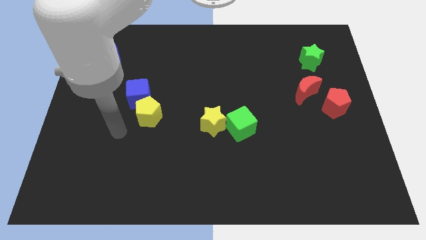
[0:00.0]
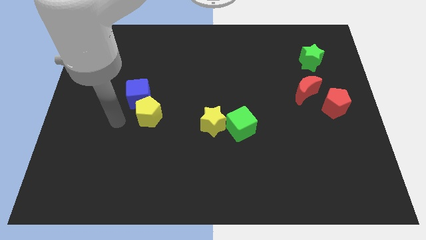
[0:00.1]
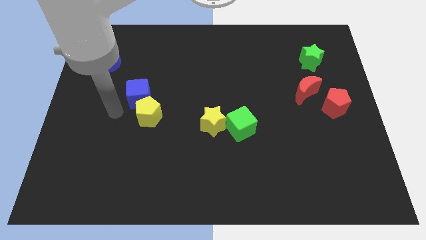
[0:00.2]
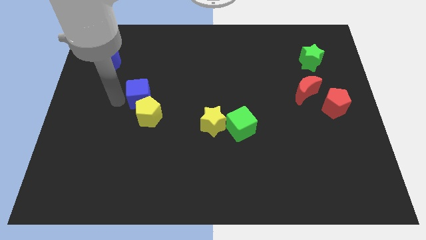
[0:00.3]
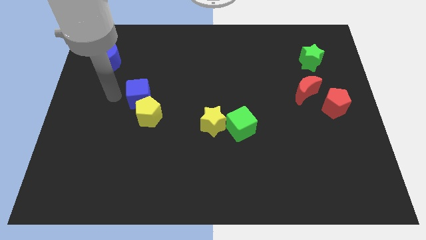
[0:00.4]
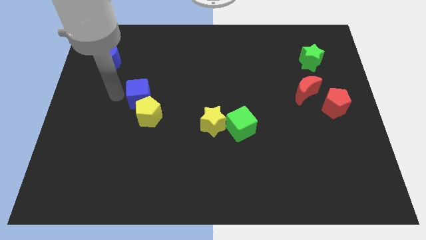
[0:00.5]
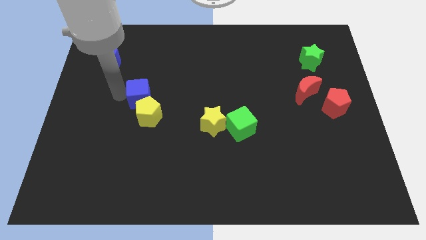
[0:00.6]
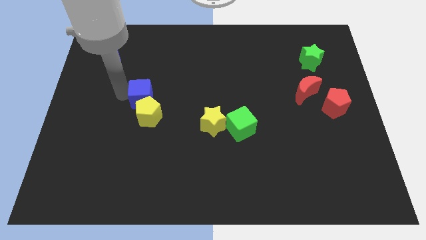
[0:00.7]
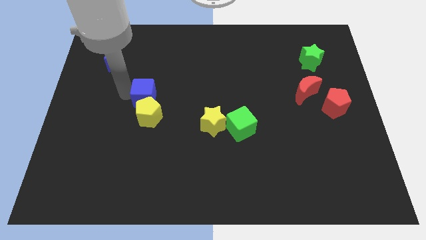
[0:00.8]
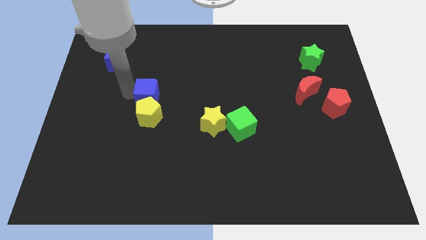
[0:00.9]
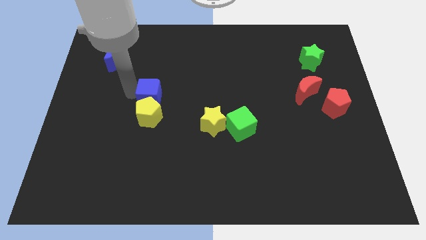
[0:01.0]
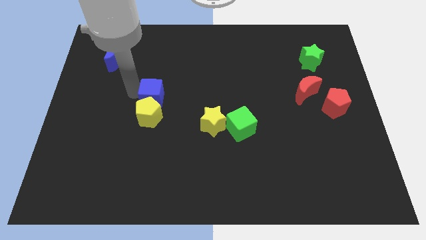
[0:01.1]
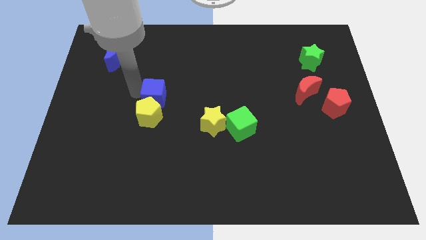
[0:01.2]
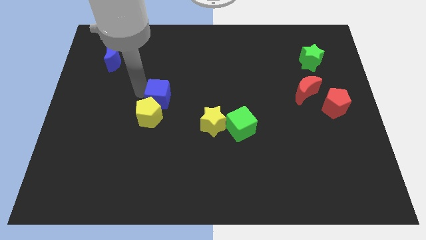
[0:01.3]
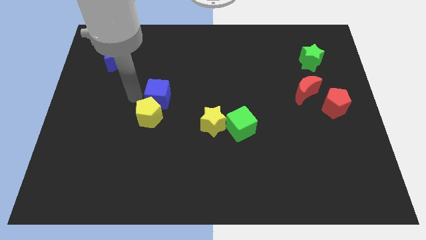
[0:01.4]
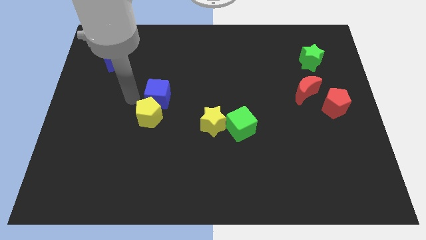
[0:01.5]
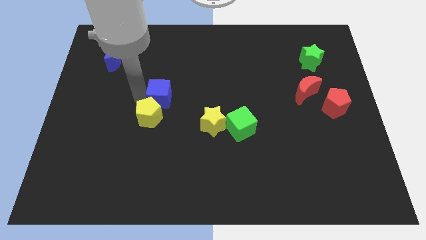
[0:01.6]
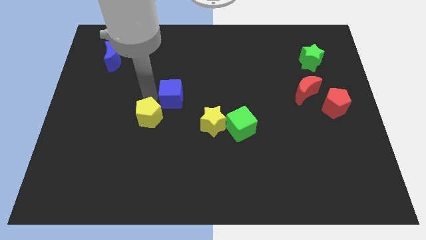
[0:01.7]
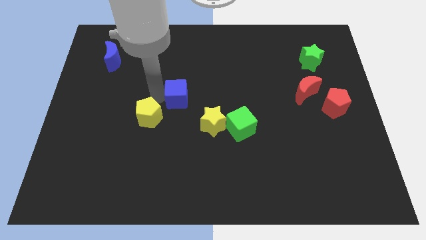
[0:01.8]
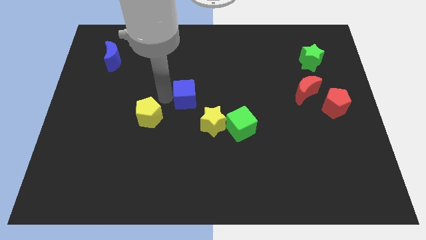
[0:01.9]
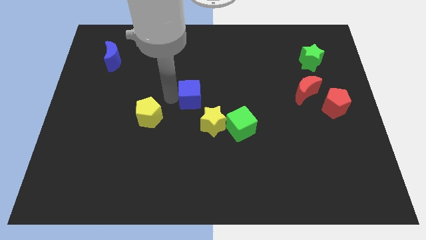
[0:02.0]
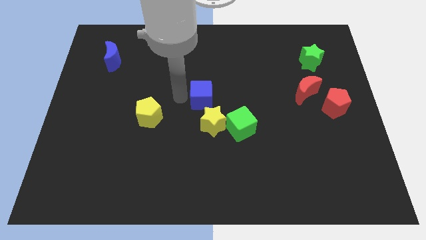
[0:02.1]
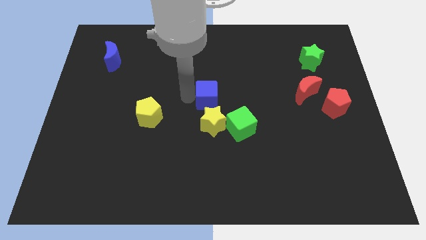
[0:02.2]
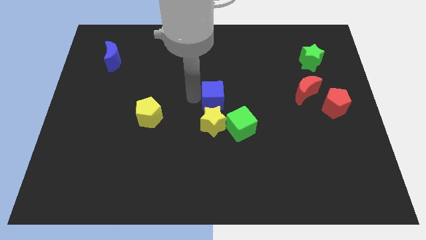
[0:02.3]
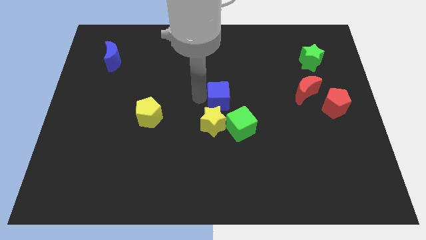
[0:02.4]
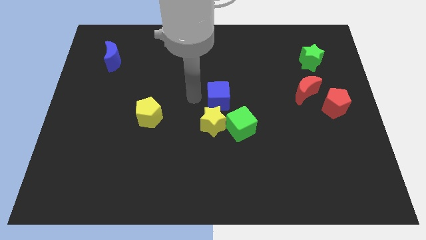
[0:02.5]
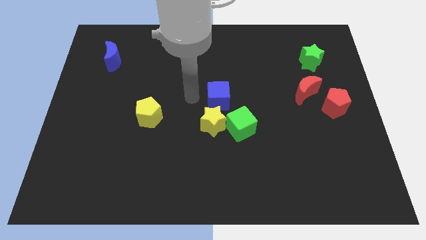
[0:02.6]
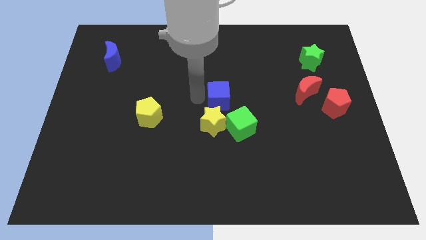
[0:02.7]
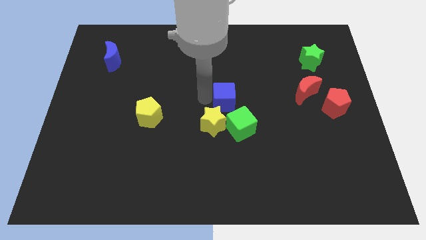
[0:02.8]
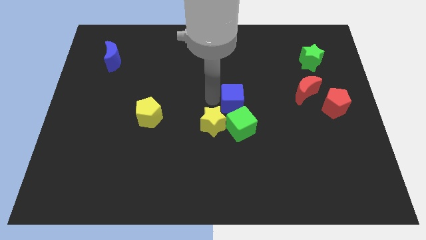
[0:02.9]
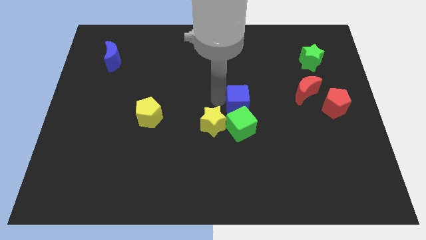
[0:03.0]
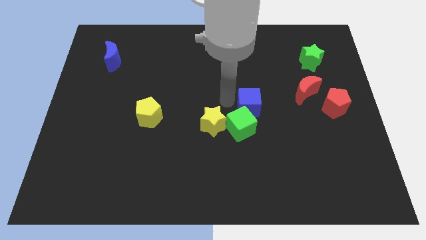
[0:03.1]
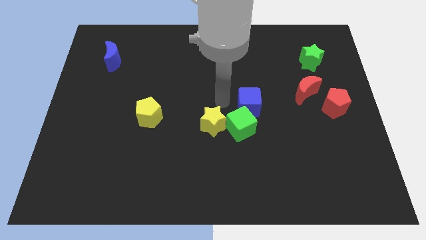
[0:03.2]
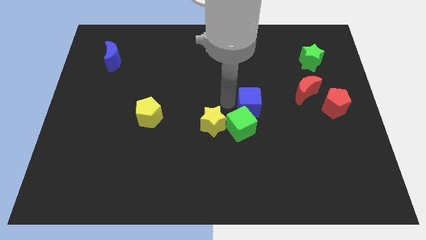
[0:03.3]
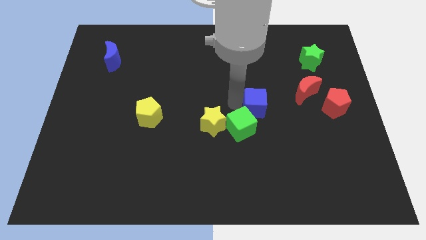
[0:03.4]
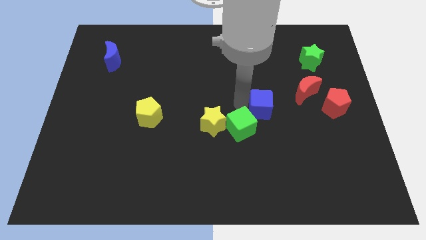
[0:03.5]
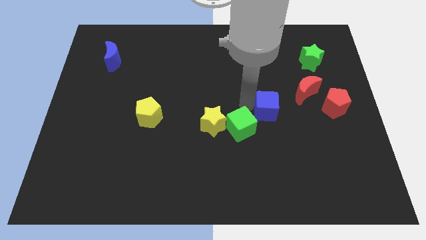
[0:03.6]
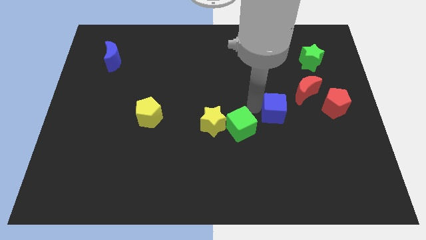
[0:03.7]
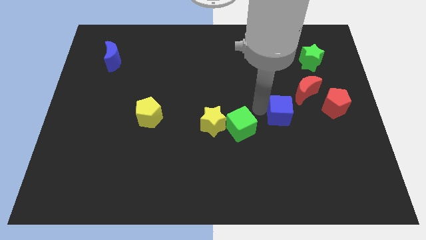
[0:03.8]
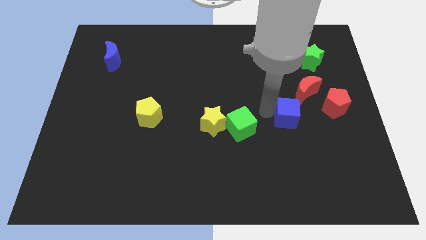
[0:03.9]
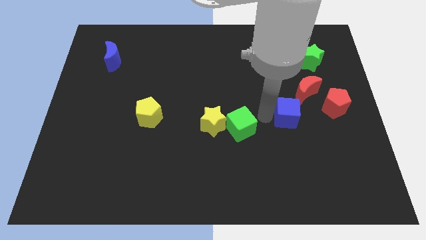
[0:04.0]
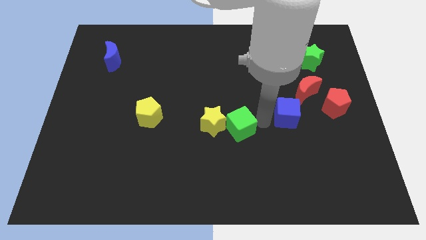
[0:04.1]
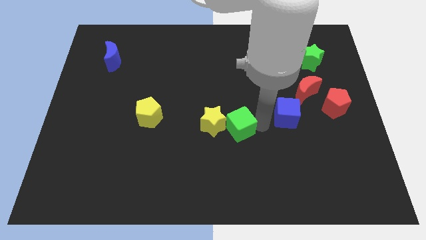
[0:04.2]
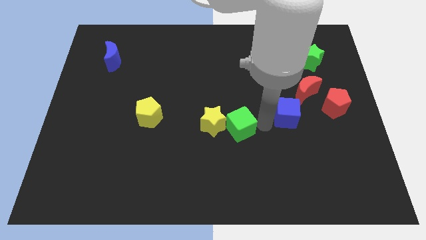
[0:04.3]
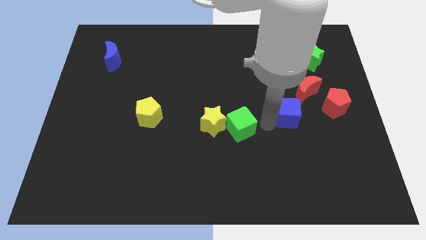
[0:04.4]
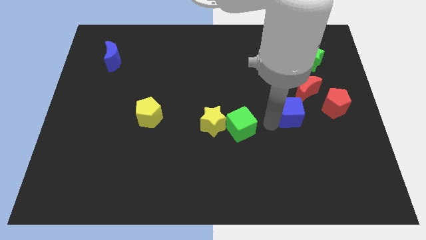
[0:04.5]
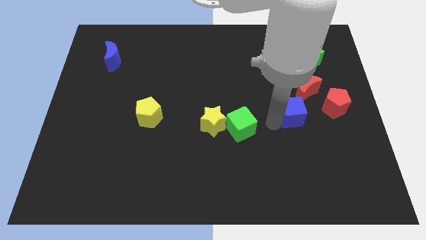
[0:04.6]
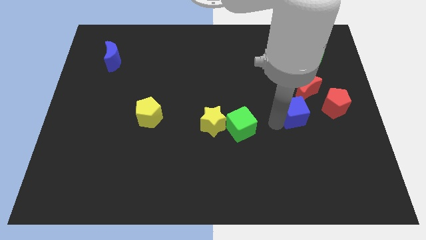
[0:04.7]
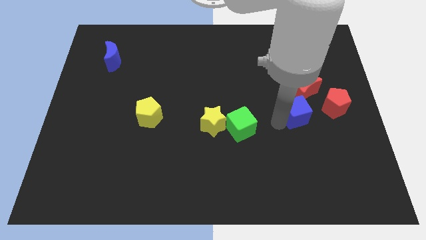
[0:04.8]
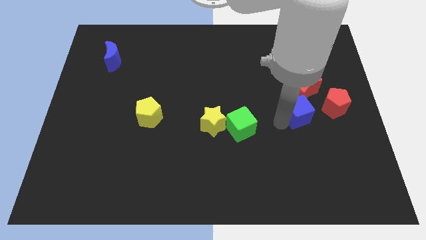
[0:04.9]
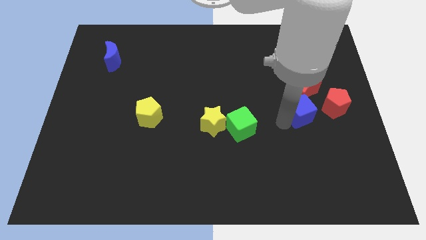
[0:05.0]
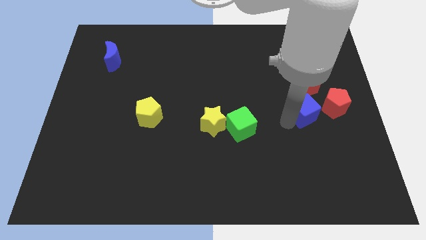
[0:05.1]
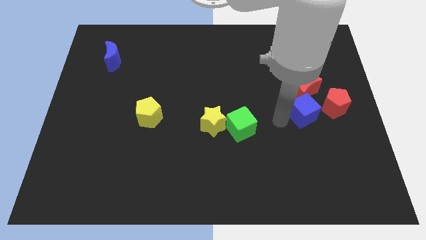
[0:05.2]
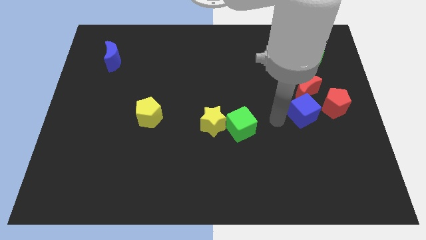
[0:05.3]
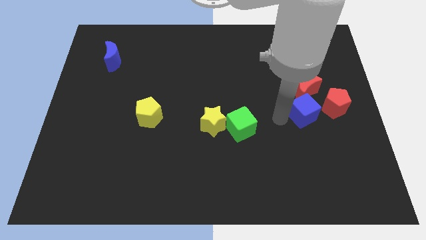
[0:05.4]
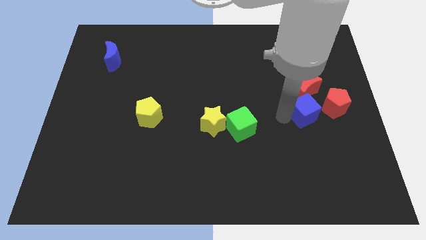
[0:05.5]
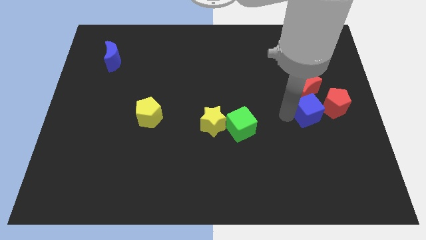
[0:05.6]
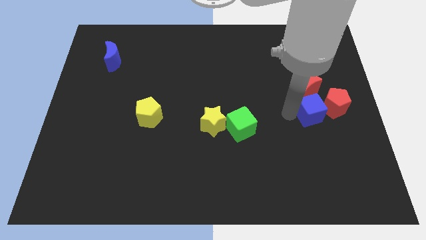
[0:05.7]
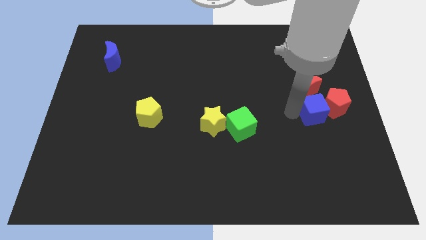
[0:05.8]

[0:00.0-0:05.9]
slide the blue cube next to the red pentagon

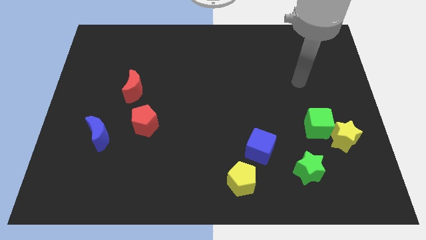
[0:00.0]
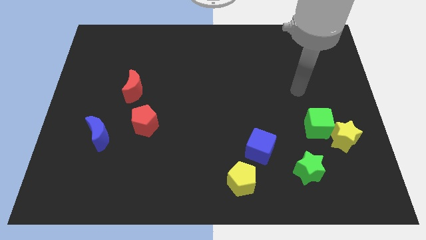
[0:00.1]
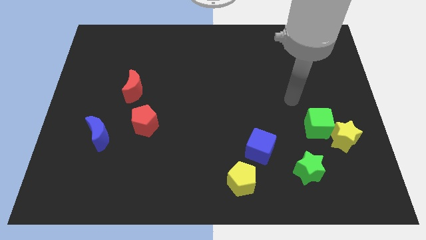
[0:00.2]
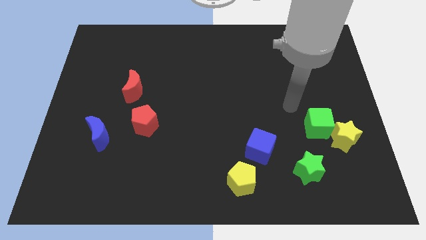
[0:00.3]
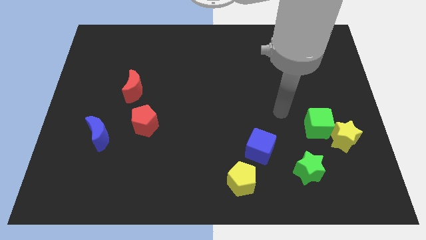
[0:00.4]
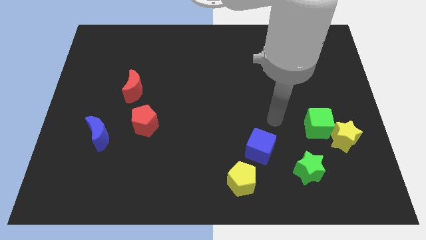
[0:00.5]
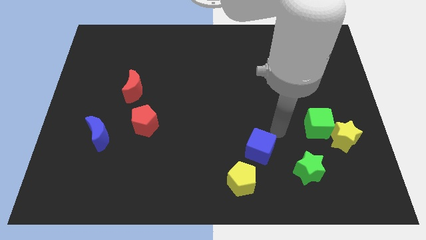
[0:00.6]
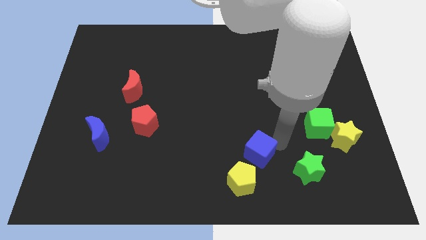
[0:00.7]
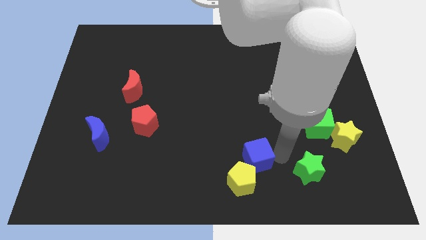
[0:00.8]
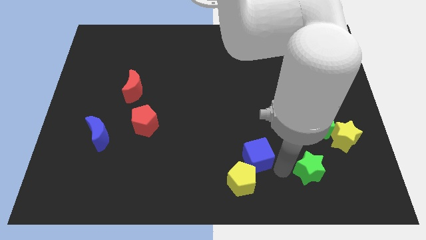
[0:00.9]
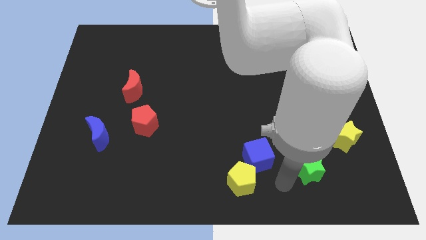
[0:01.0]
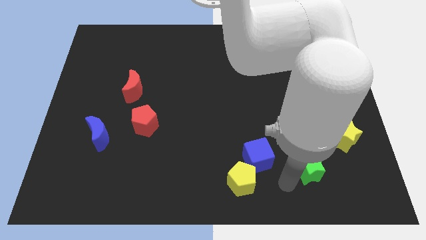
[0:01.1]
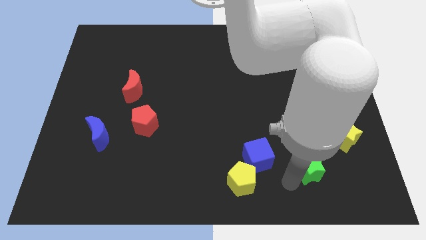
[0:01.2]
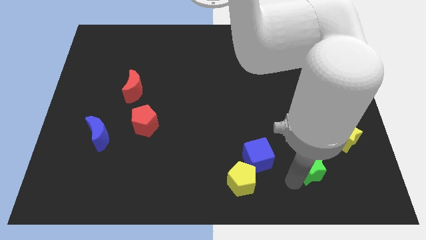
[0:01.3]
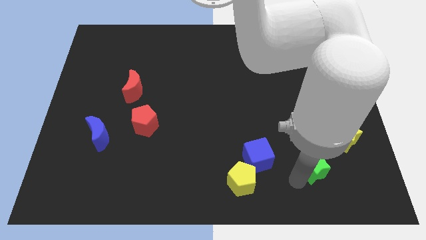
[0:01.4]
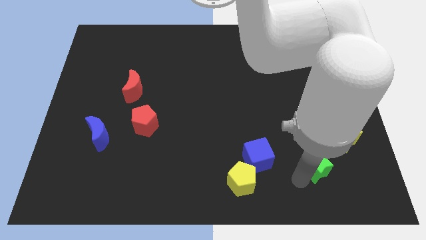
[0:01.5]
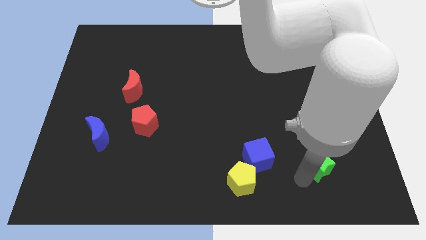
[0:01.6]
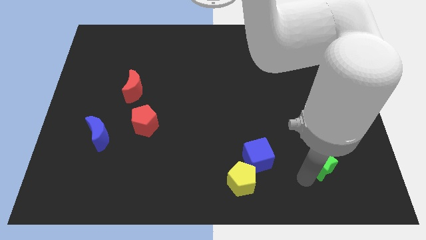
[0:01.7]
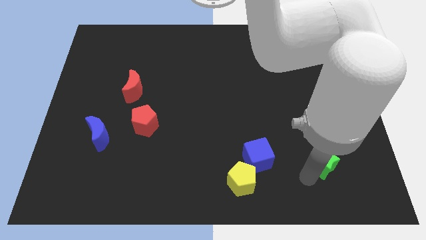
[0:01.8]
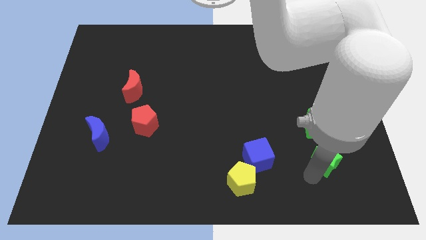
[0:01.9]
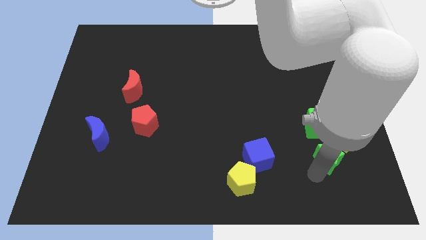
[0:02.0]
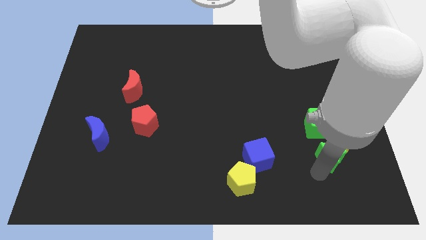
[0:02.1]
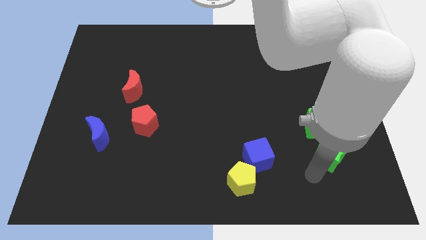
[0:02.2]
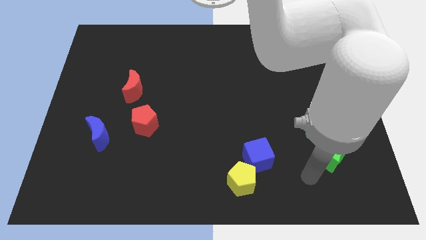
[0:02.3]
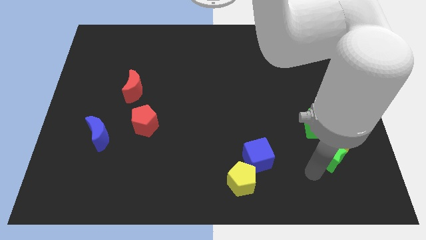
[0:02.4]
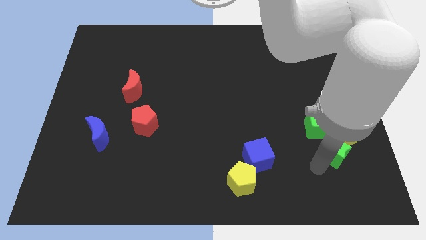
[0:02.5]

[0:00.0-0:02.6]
slide the green star towards the yellow star
